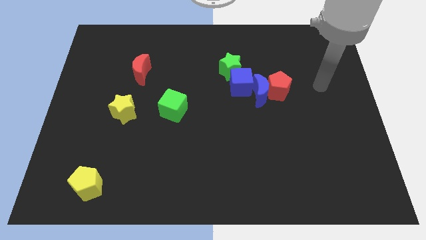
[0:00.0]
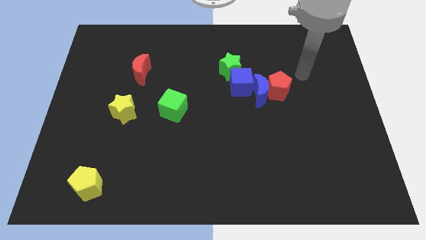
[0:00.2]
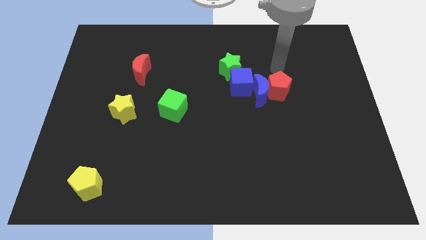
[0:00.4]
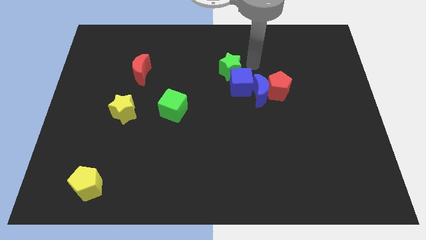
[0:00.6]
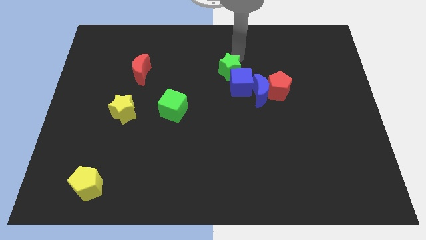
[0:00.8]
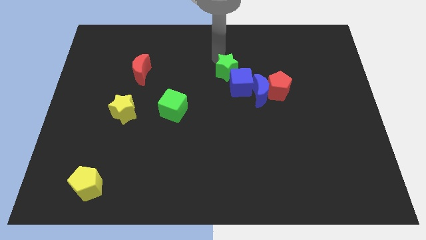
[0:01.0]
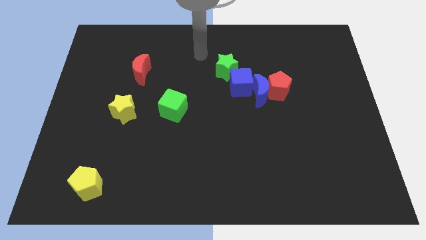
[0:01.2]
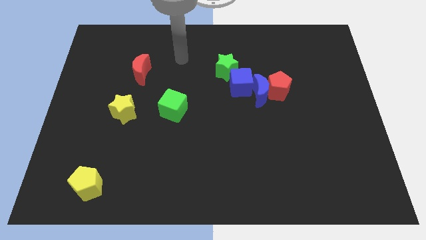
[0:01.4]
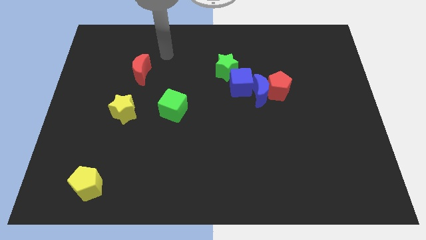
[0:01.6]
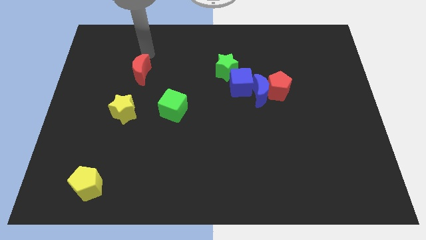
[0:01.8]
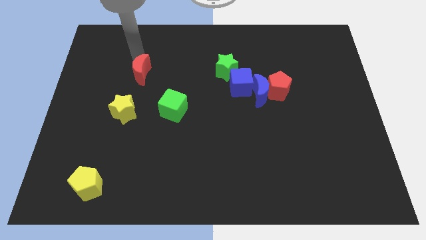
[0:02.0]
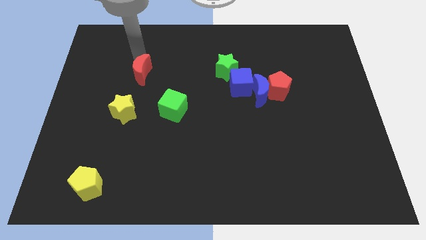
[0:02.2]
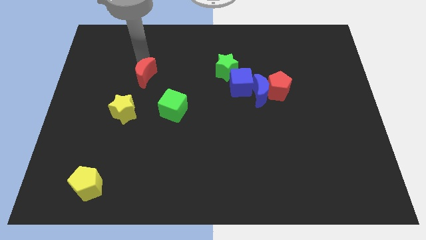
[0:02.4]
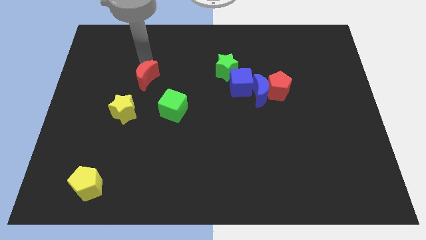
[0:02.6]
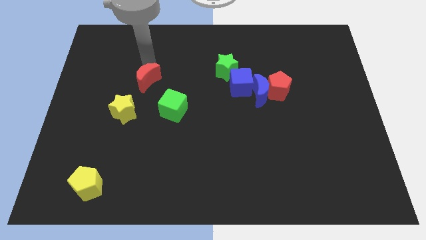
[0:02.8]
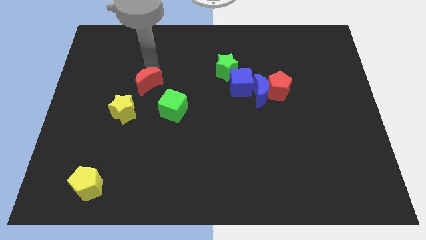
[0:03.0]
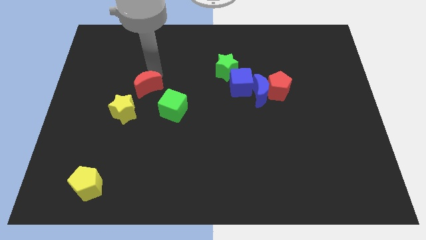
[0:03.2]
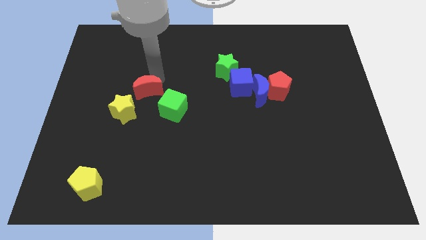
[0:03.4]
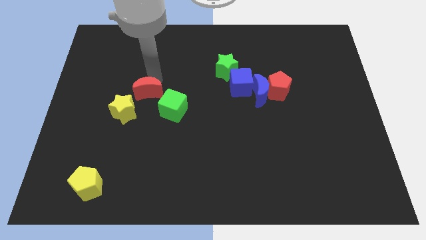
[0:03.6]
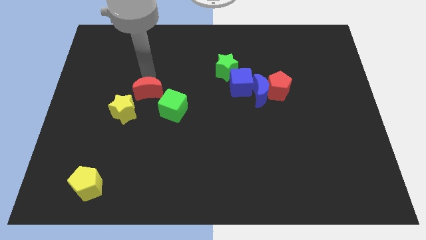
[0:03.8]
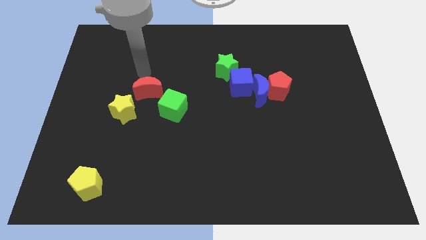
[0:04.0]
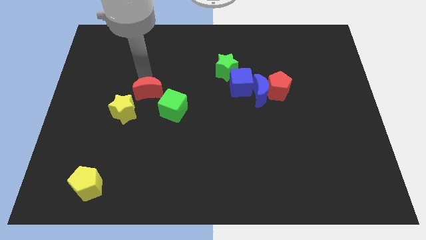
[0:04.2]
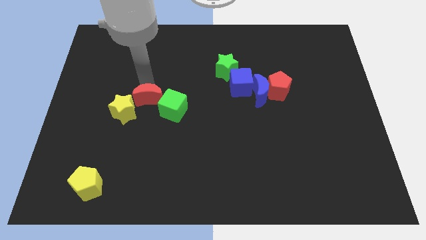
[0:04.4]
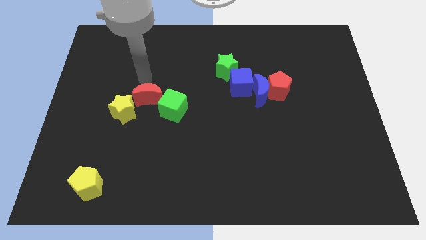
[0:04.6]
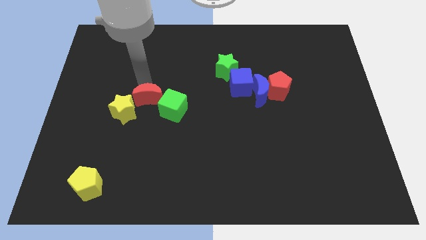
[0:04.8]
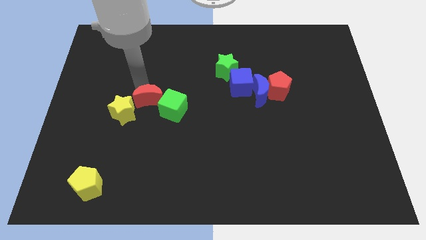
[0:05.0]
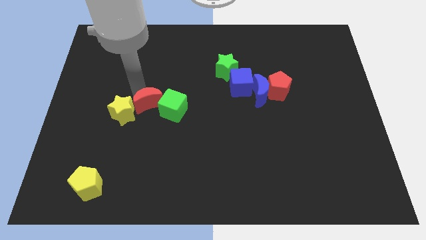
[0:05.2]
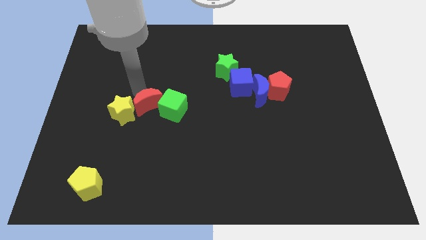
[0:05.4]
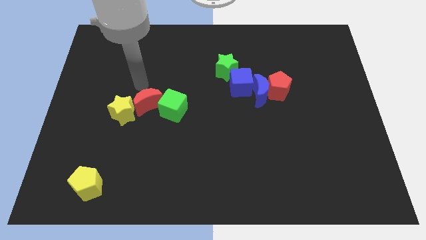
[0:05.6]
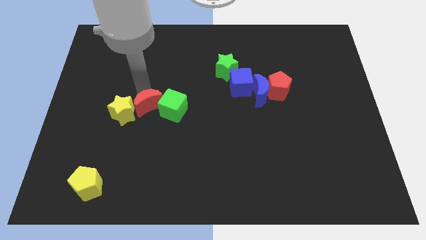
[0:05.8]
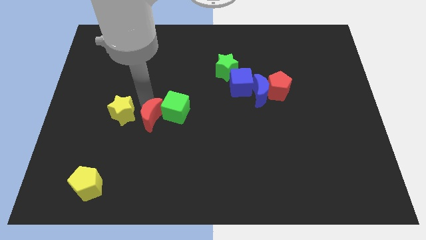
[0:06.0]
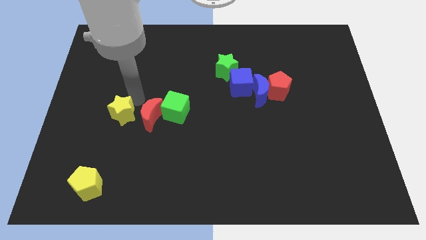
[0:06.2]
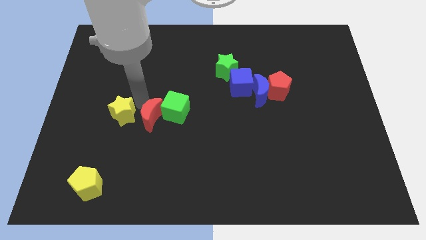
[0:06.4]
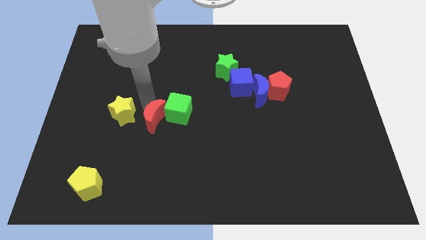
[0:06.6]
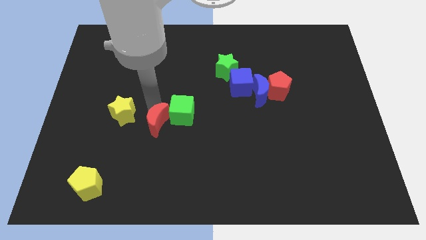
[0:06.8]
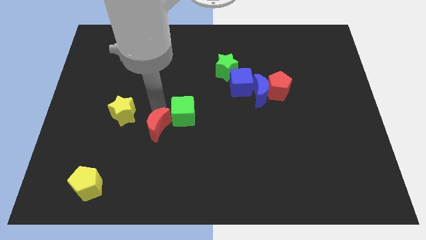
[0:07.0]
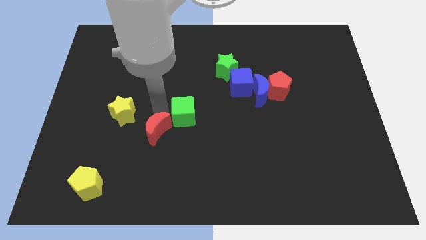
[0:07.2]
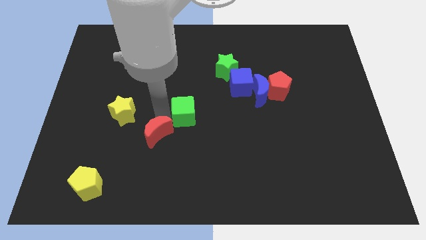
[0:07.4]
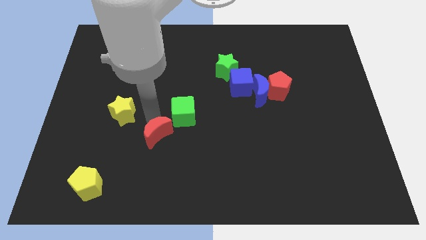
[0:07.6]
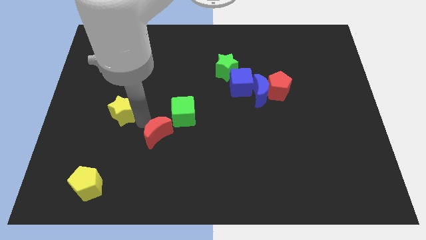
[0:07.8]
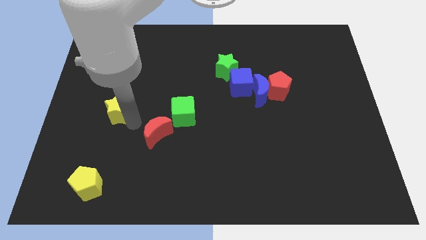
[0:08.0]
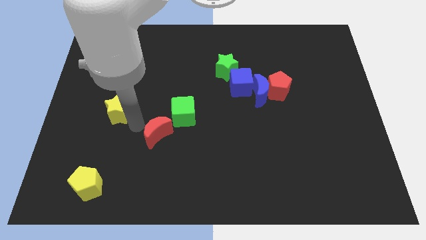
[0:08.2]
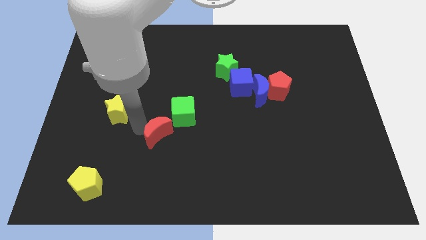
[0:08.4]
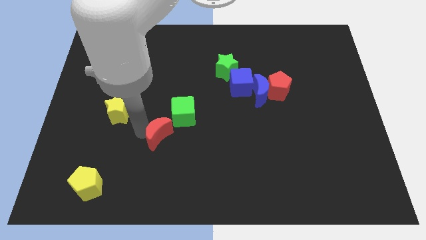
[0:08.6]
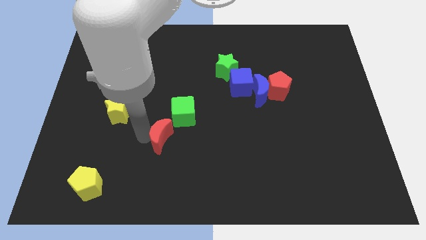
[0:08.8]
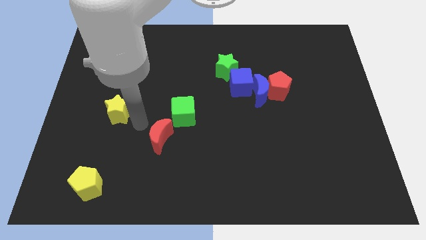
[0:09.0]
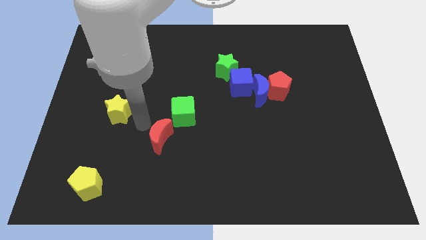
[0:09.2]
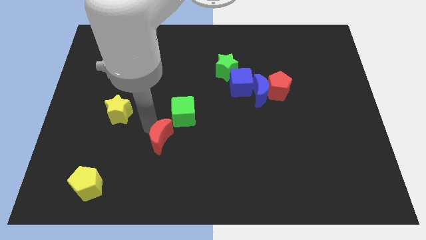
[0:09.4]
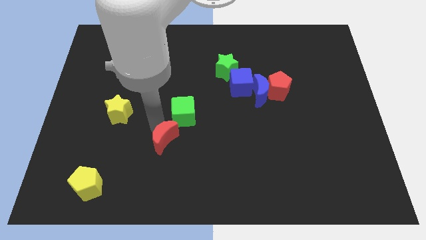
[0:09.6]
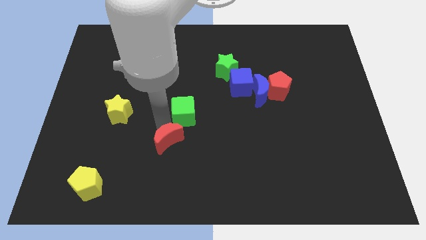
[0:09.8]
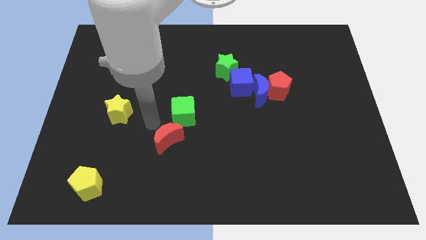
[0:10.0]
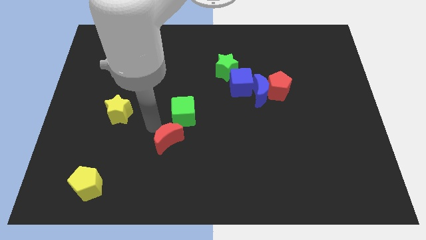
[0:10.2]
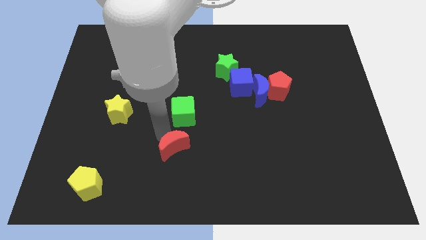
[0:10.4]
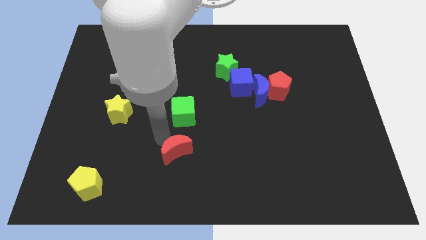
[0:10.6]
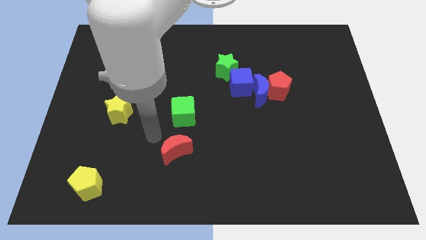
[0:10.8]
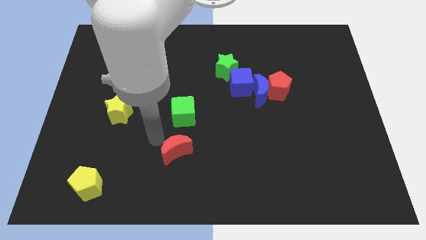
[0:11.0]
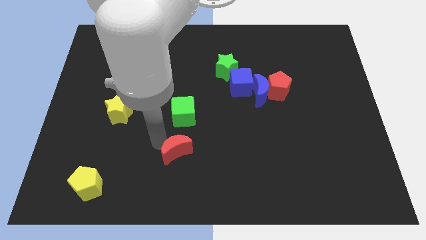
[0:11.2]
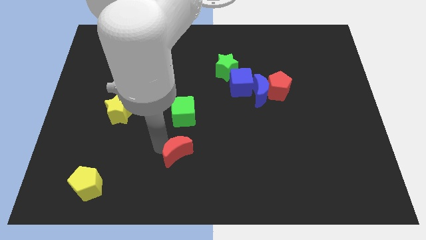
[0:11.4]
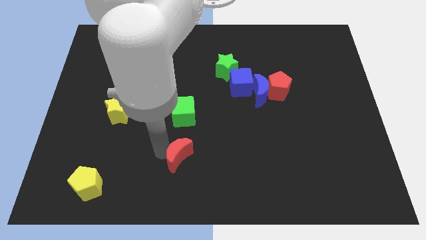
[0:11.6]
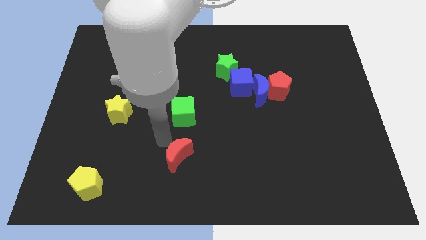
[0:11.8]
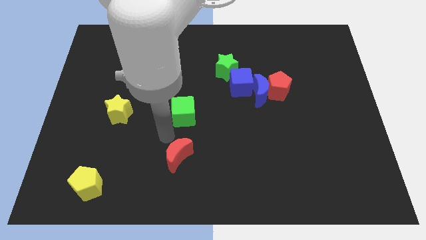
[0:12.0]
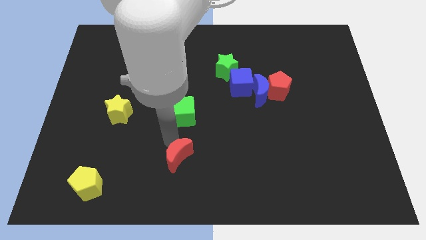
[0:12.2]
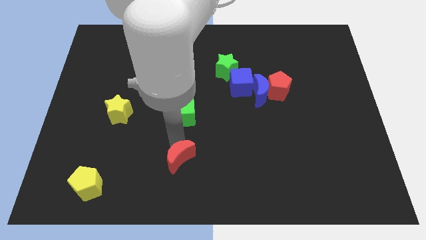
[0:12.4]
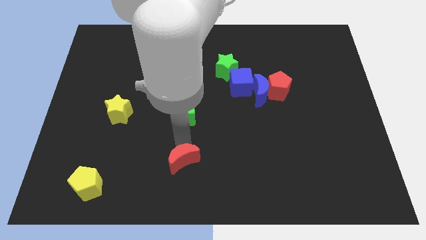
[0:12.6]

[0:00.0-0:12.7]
put the red moon to the bottom

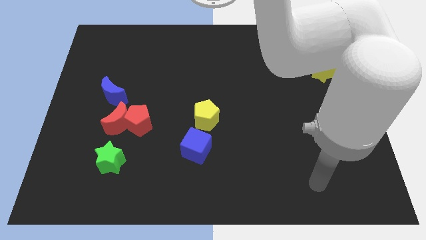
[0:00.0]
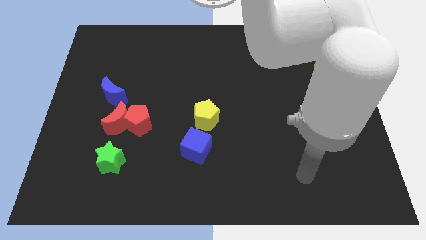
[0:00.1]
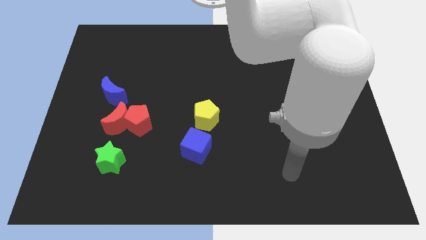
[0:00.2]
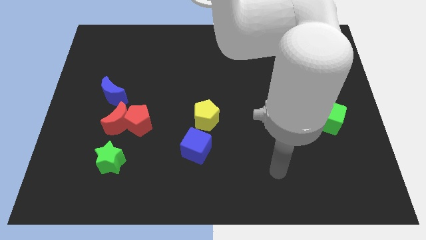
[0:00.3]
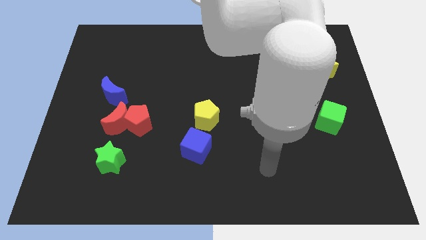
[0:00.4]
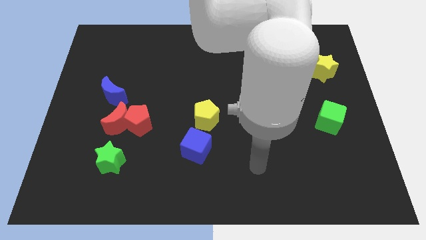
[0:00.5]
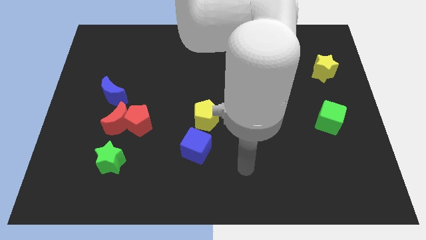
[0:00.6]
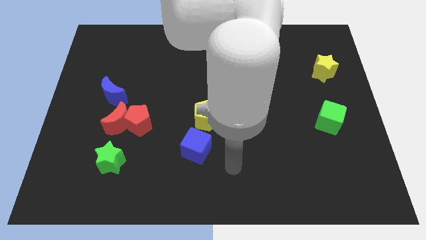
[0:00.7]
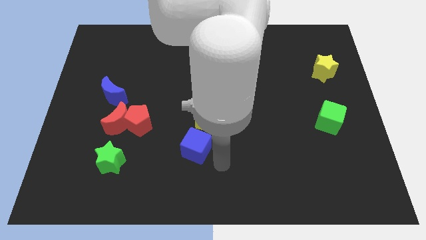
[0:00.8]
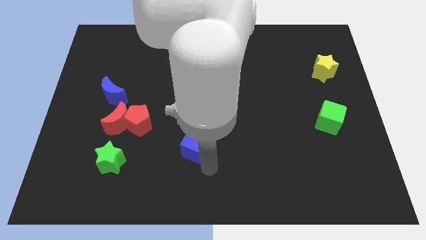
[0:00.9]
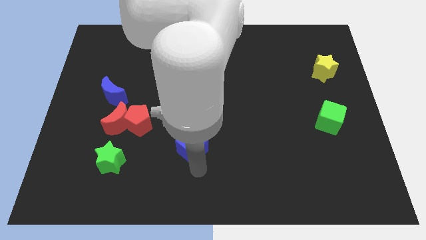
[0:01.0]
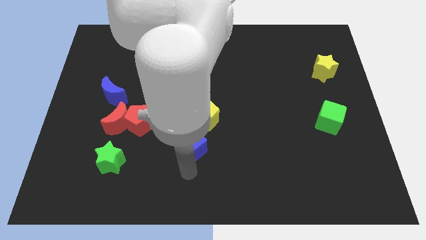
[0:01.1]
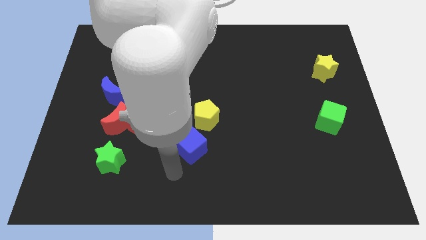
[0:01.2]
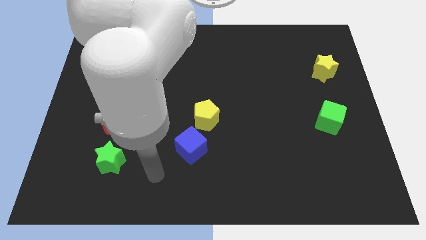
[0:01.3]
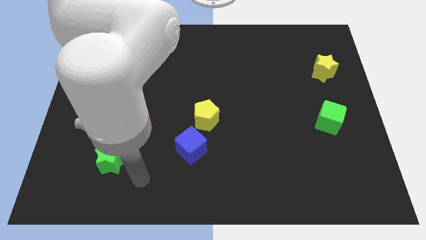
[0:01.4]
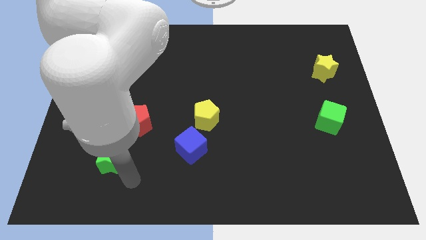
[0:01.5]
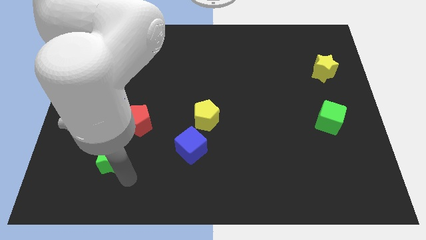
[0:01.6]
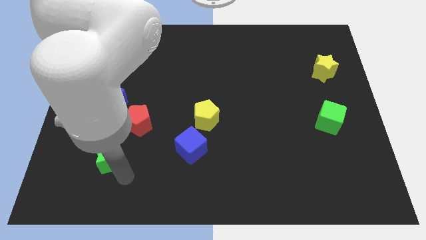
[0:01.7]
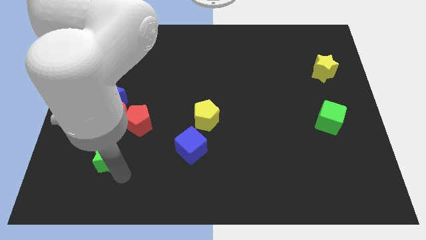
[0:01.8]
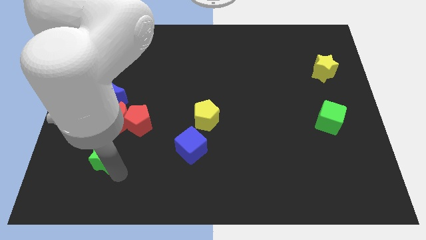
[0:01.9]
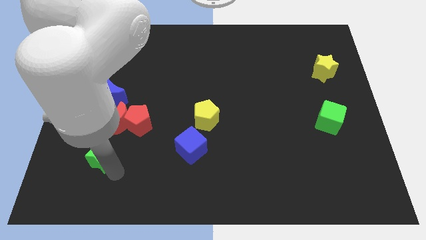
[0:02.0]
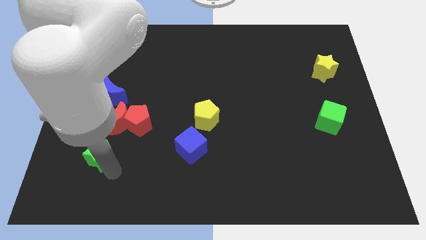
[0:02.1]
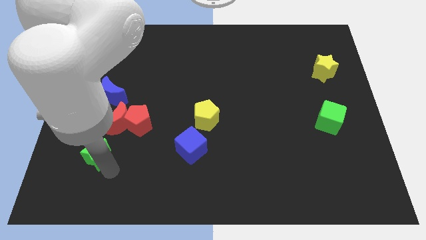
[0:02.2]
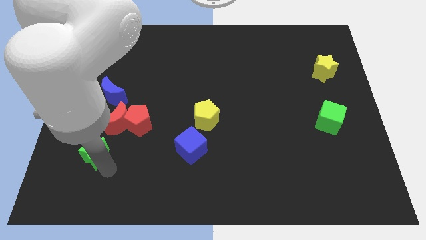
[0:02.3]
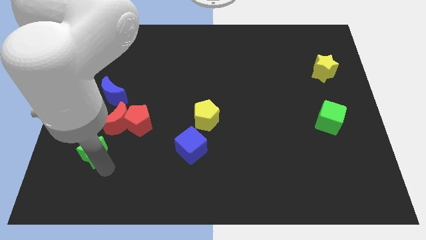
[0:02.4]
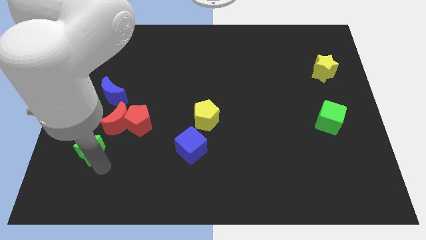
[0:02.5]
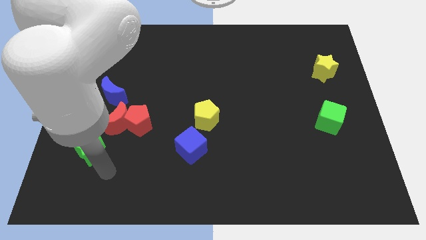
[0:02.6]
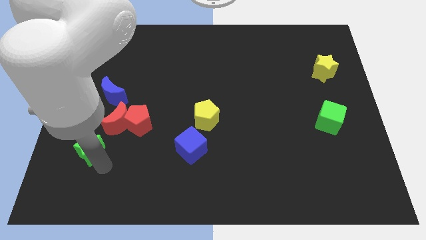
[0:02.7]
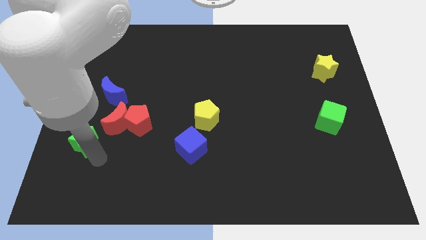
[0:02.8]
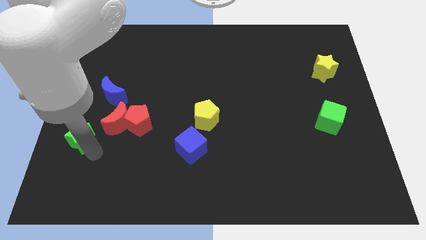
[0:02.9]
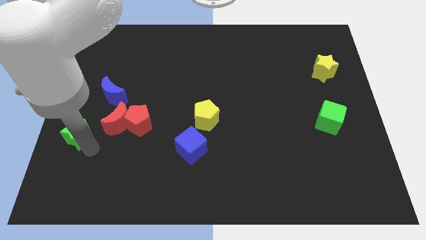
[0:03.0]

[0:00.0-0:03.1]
slide the green star to the center left
